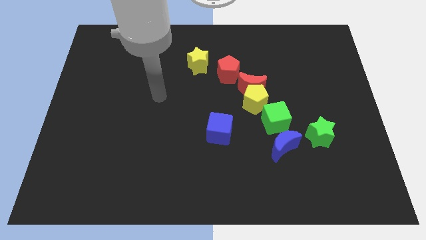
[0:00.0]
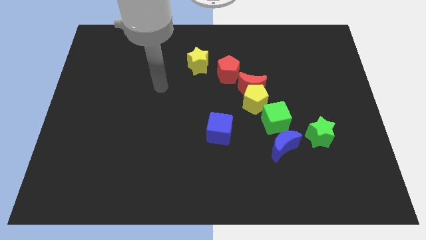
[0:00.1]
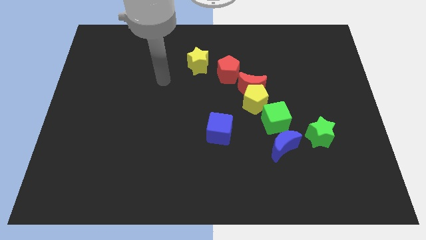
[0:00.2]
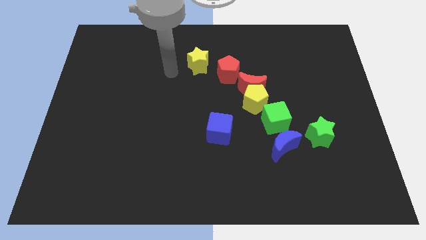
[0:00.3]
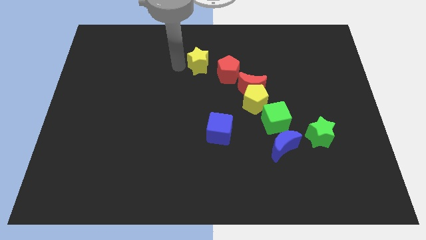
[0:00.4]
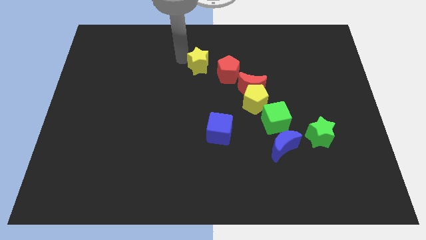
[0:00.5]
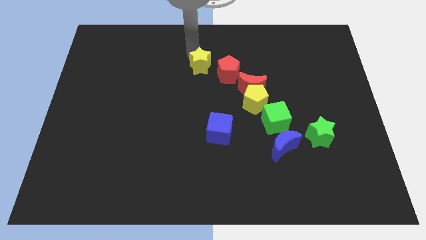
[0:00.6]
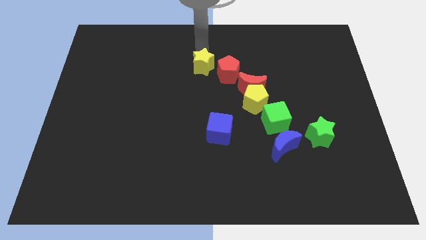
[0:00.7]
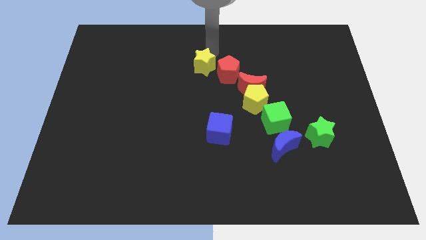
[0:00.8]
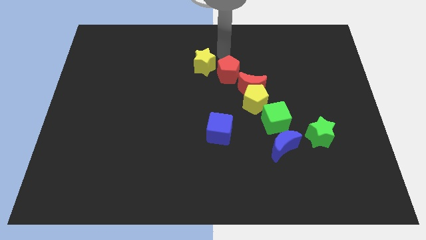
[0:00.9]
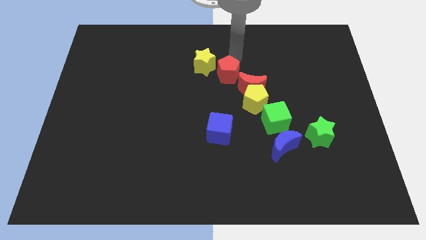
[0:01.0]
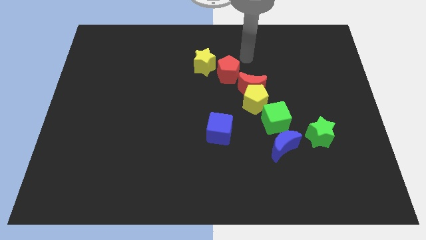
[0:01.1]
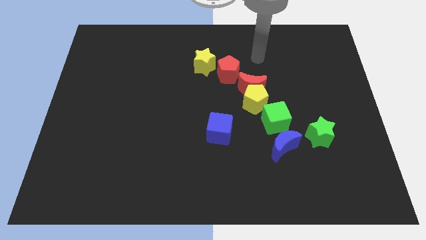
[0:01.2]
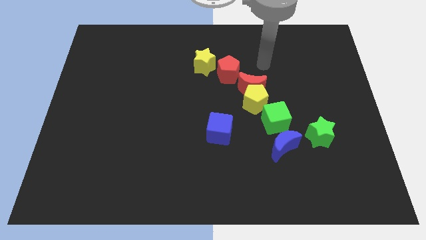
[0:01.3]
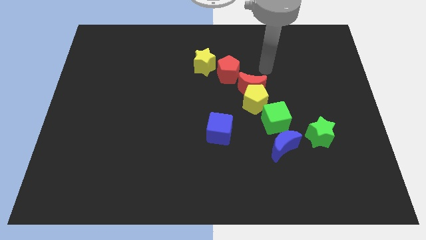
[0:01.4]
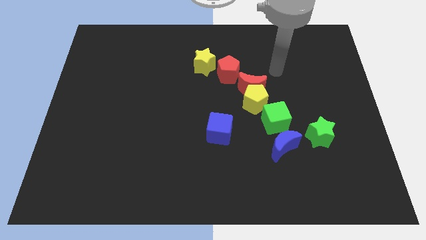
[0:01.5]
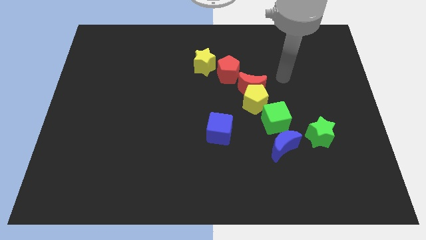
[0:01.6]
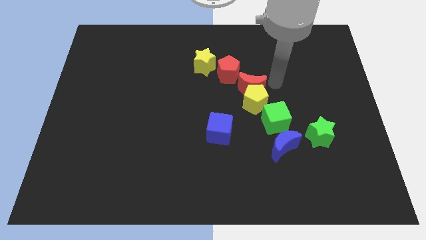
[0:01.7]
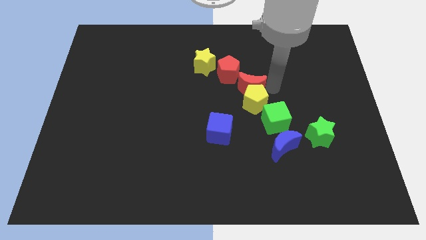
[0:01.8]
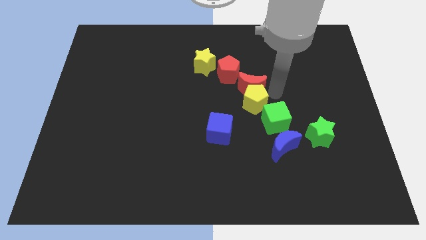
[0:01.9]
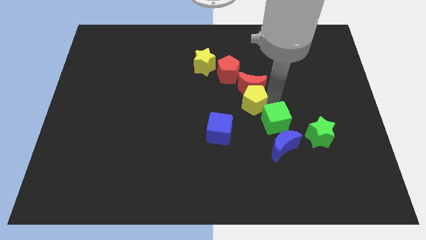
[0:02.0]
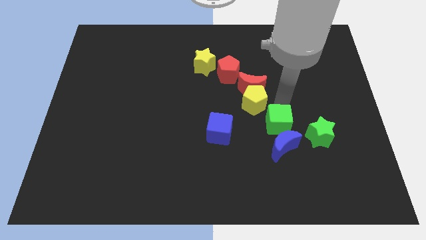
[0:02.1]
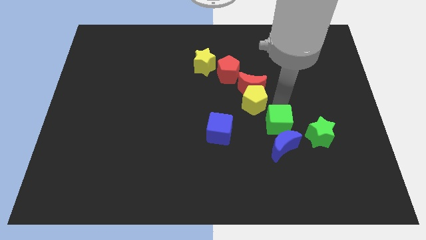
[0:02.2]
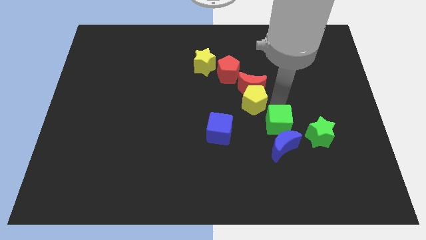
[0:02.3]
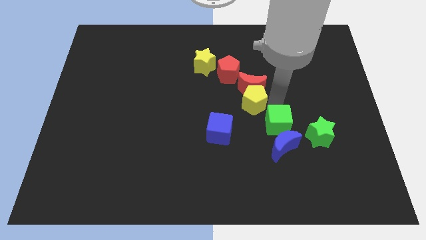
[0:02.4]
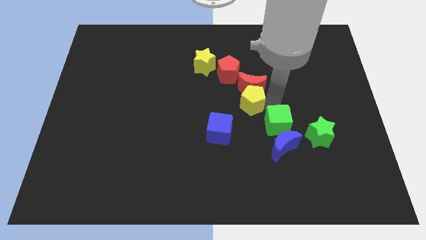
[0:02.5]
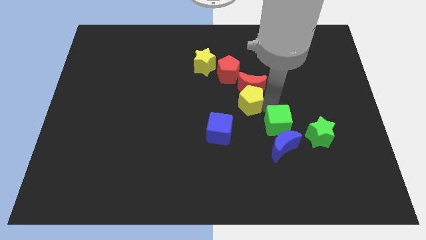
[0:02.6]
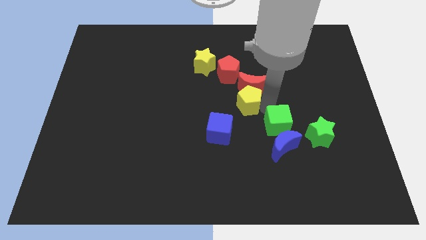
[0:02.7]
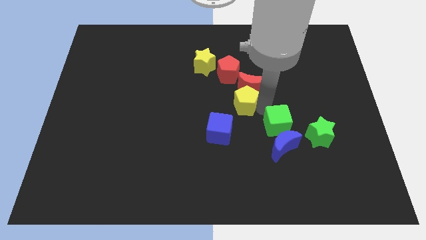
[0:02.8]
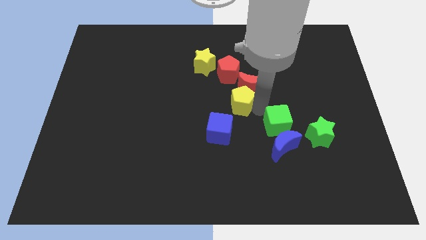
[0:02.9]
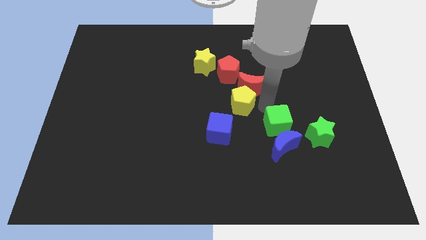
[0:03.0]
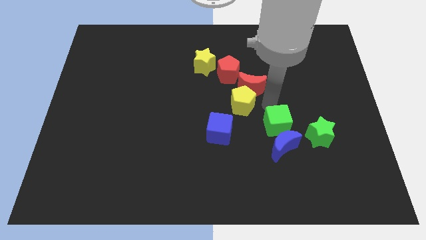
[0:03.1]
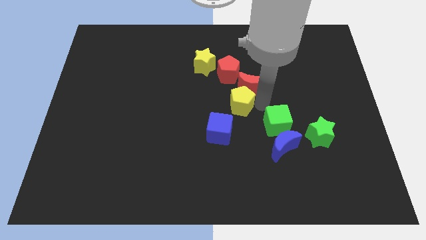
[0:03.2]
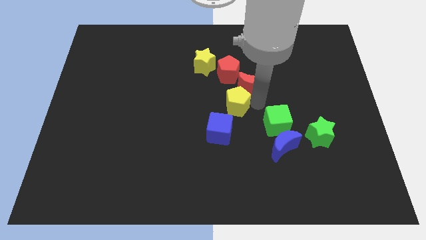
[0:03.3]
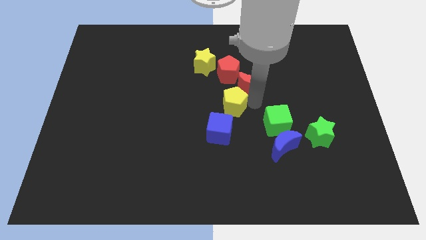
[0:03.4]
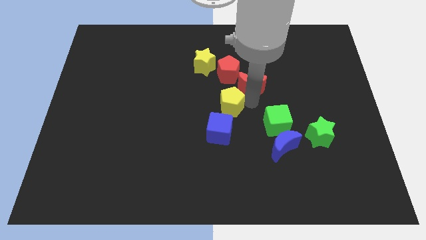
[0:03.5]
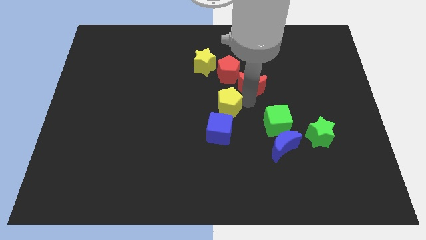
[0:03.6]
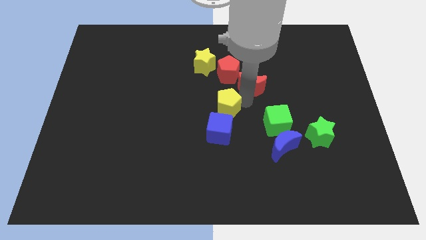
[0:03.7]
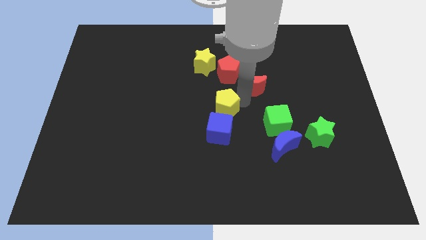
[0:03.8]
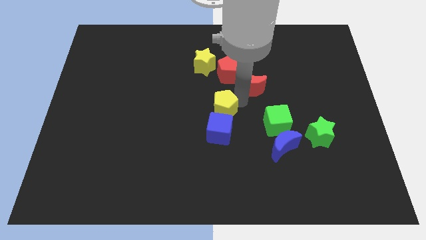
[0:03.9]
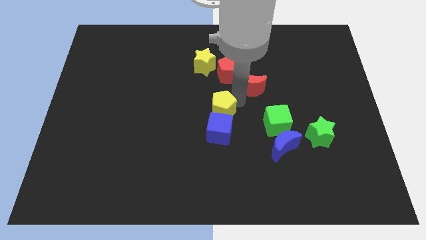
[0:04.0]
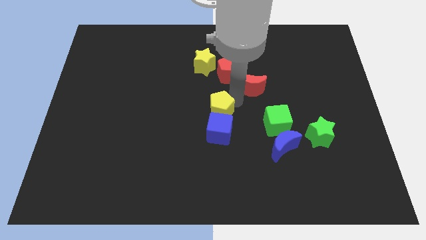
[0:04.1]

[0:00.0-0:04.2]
separate the yellow pentagon from the red moon and green cube

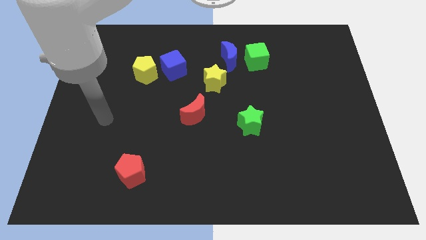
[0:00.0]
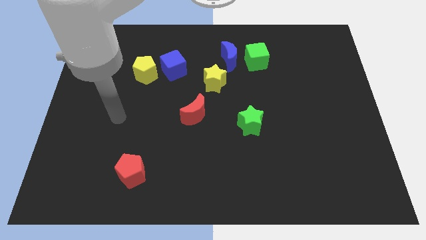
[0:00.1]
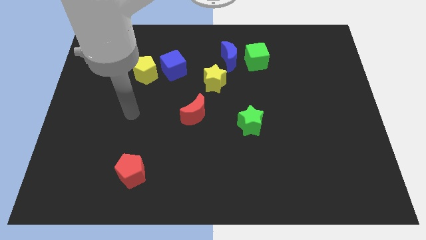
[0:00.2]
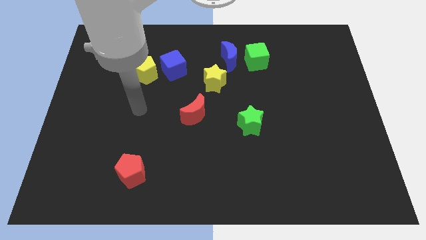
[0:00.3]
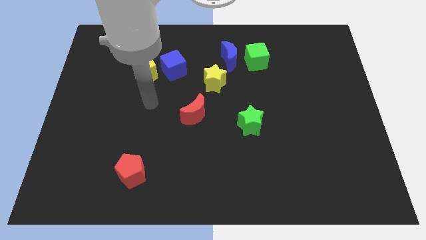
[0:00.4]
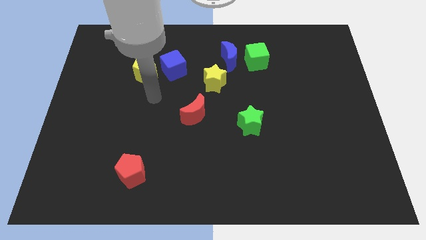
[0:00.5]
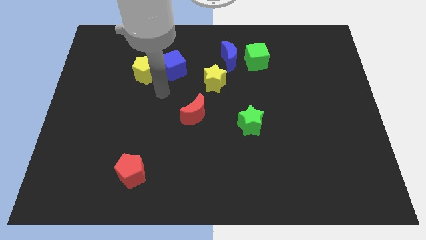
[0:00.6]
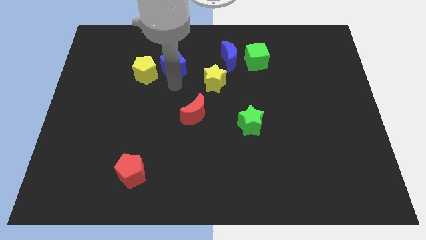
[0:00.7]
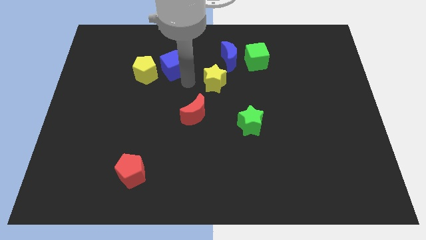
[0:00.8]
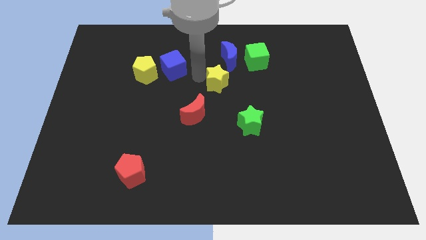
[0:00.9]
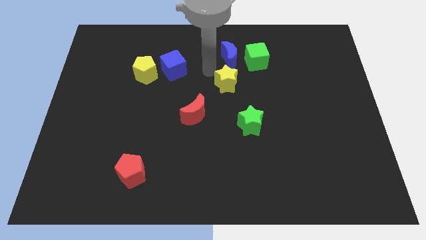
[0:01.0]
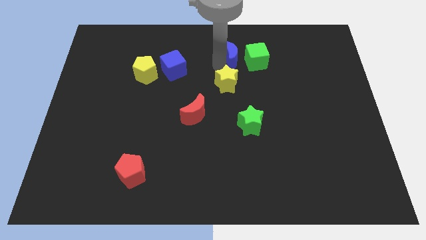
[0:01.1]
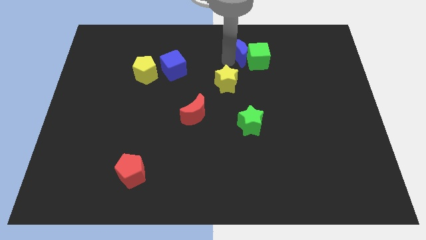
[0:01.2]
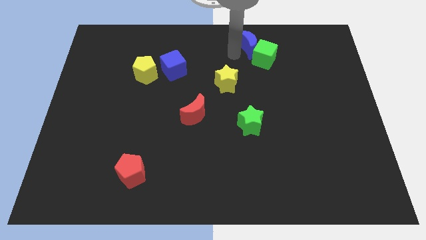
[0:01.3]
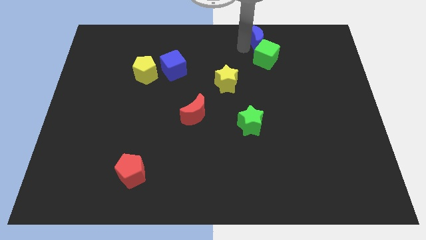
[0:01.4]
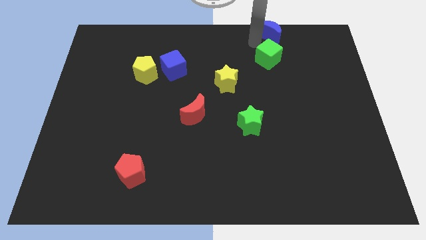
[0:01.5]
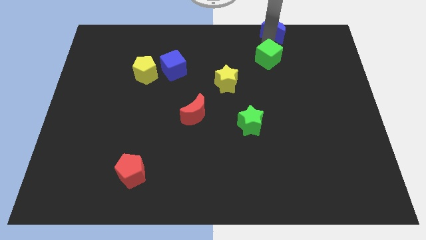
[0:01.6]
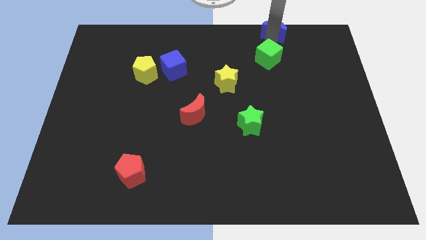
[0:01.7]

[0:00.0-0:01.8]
move the green cube away from the blue moon

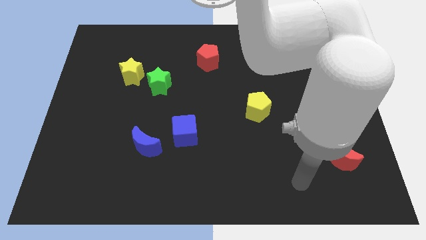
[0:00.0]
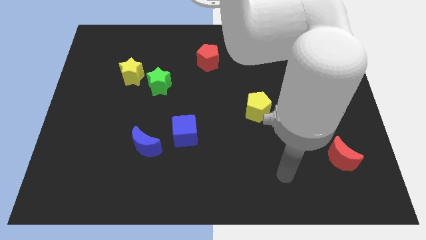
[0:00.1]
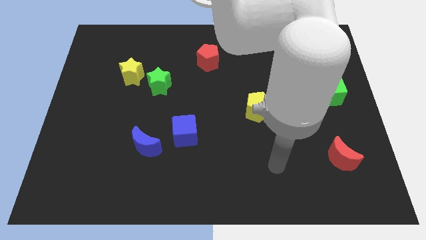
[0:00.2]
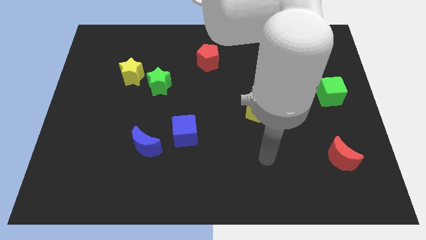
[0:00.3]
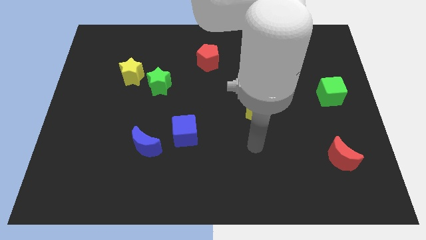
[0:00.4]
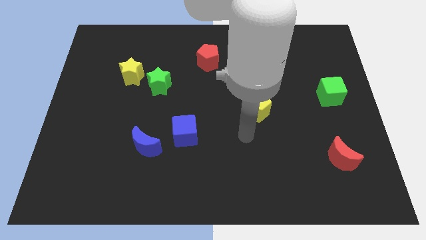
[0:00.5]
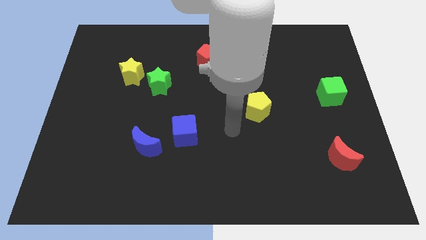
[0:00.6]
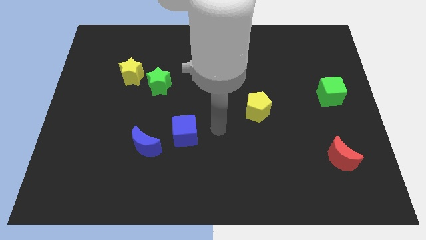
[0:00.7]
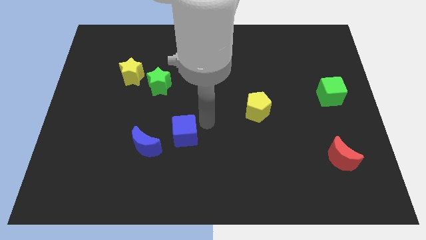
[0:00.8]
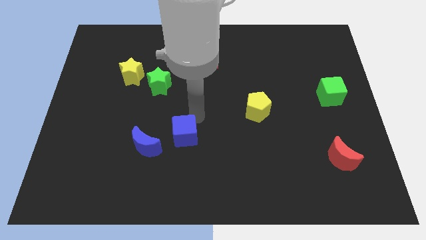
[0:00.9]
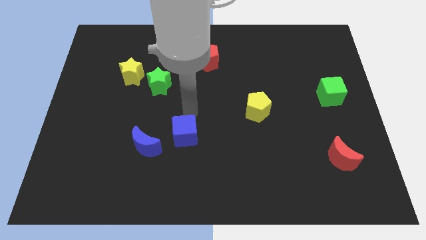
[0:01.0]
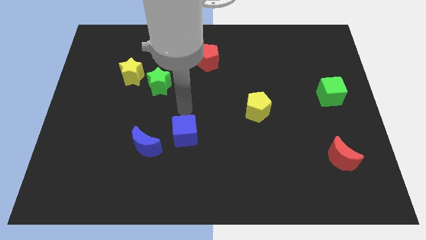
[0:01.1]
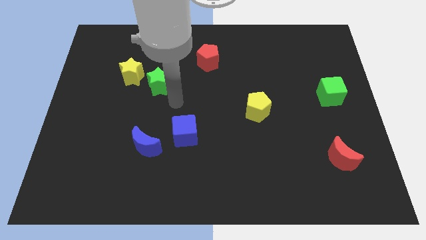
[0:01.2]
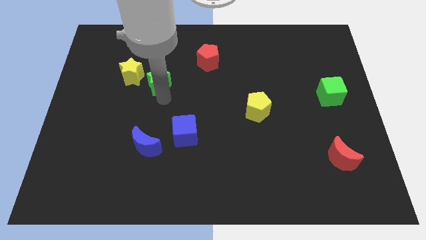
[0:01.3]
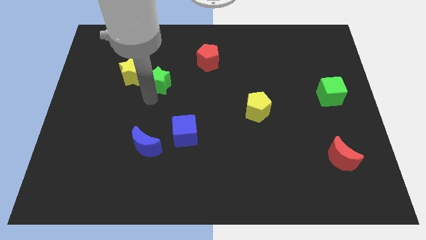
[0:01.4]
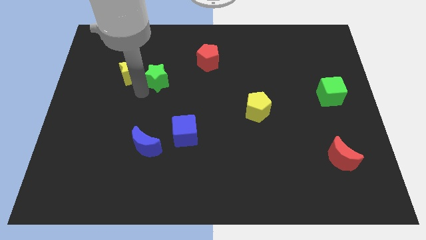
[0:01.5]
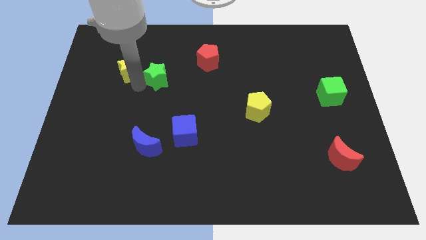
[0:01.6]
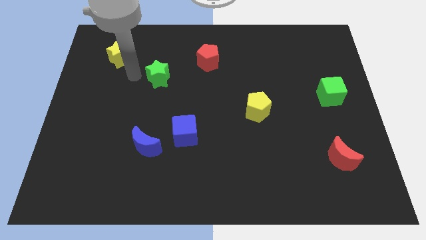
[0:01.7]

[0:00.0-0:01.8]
separate the green star from the yellow star

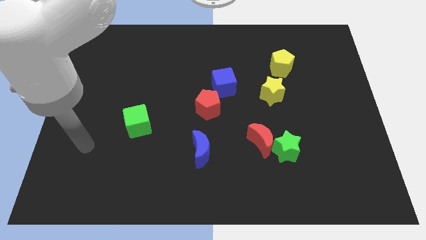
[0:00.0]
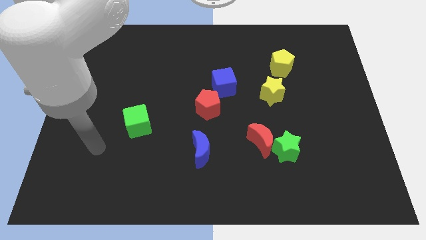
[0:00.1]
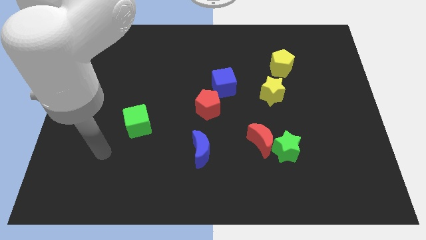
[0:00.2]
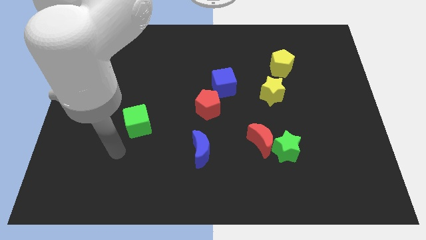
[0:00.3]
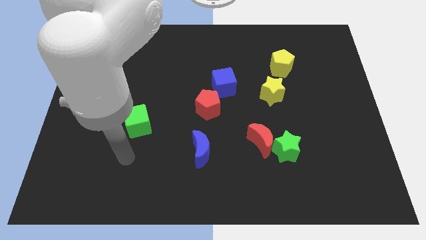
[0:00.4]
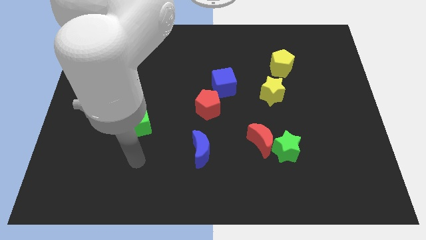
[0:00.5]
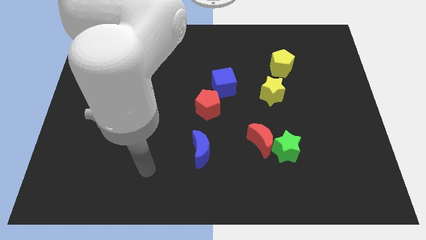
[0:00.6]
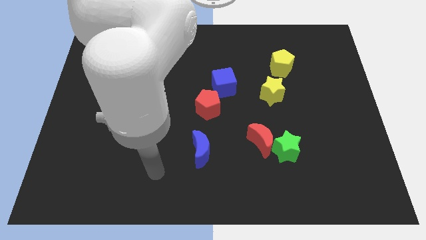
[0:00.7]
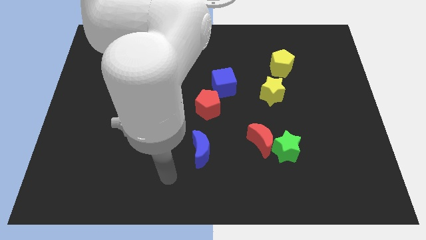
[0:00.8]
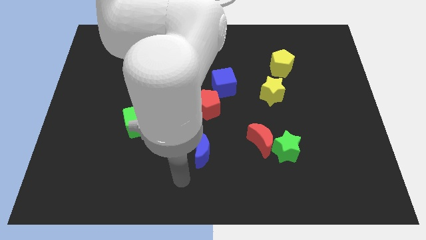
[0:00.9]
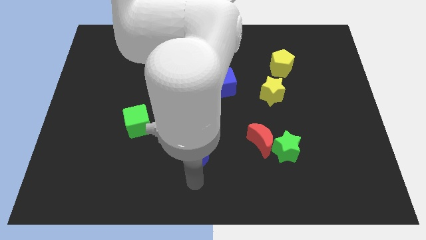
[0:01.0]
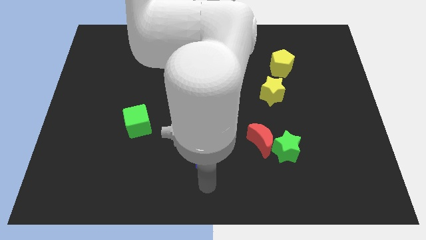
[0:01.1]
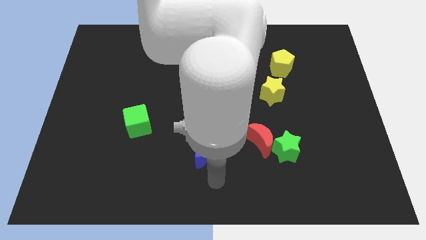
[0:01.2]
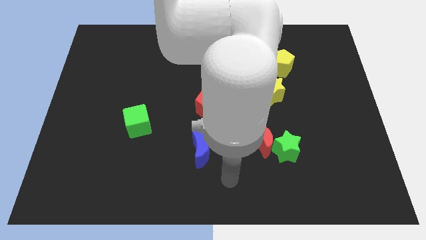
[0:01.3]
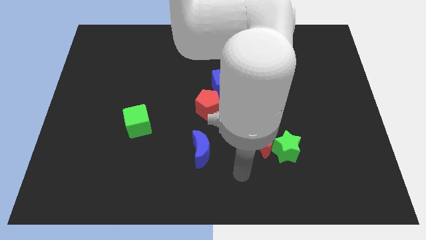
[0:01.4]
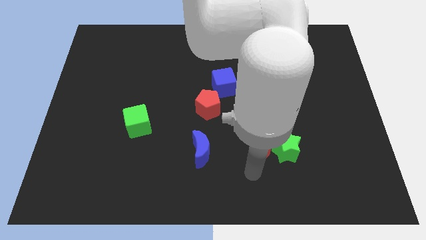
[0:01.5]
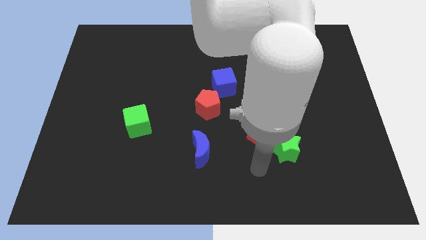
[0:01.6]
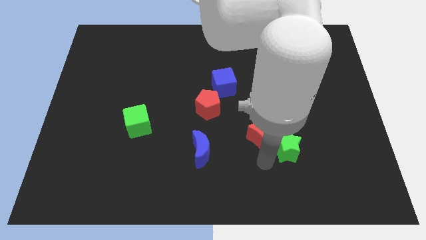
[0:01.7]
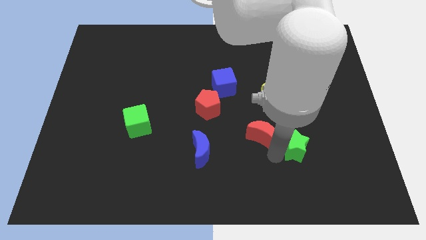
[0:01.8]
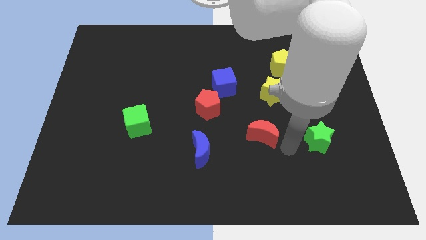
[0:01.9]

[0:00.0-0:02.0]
pull the red moon apart from the green star
